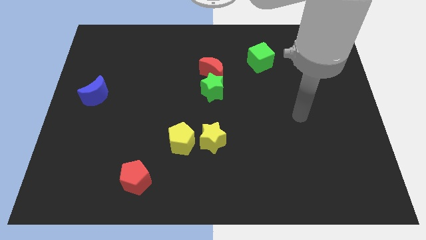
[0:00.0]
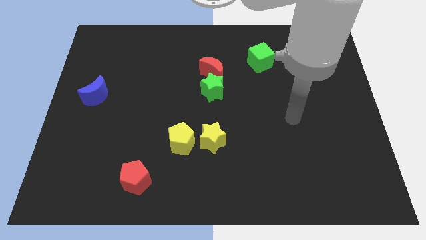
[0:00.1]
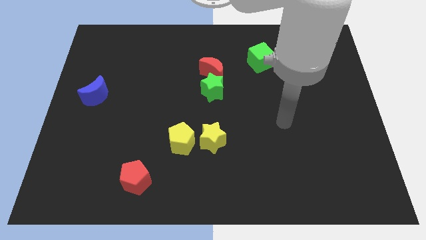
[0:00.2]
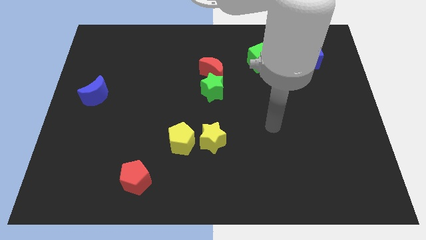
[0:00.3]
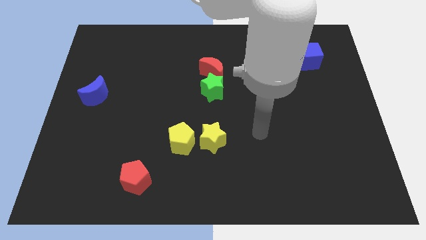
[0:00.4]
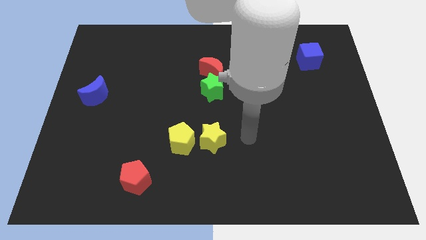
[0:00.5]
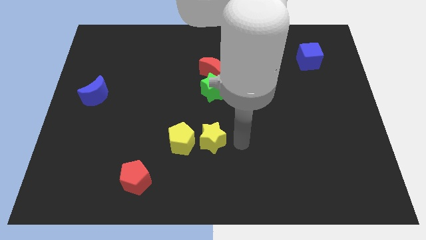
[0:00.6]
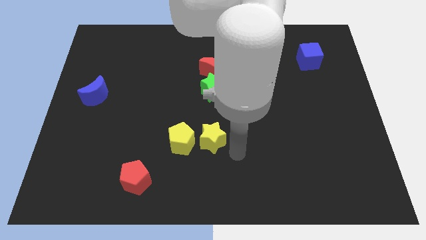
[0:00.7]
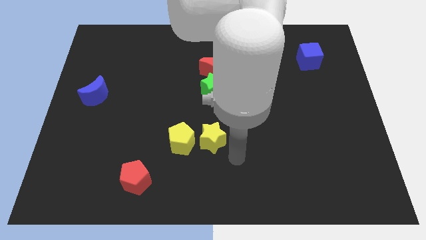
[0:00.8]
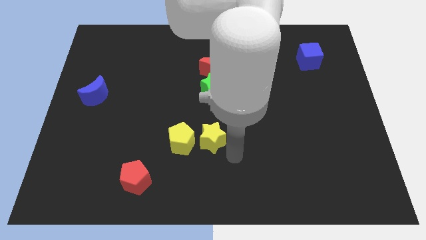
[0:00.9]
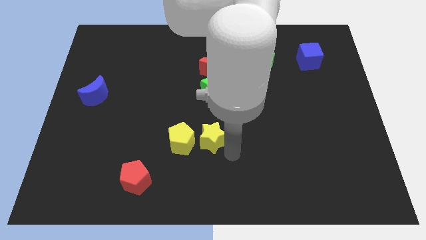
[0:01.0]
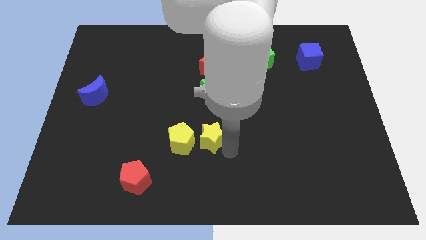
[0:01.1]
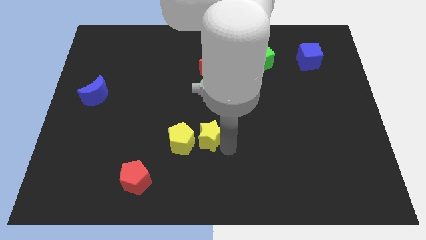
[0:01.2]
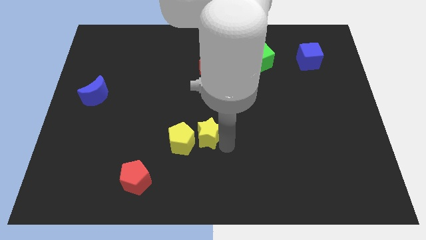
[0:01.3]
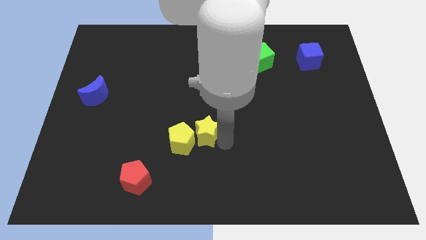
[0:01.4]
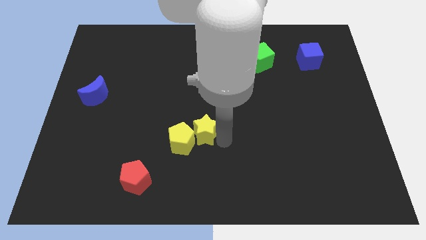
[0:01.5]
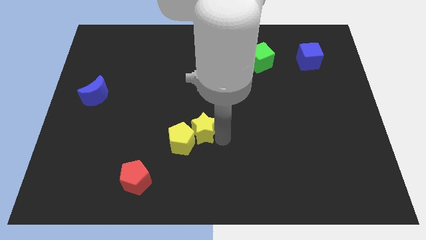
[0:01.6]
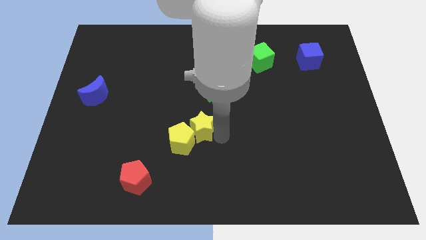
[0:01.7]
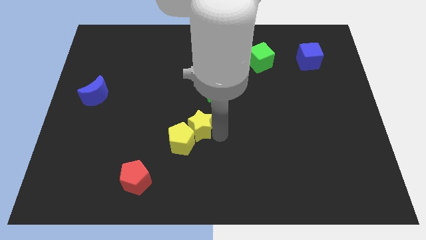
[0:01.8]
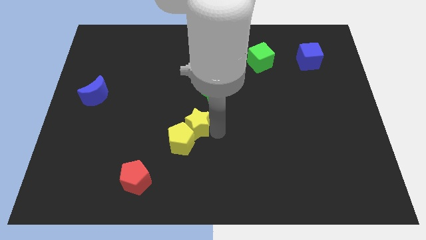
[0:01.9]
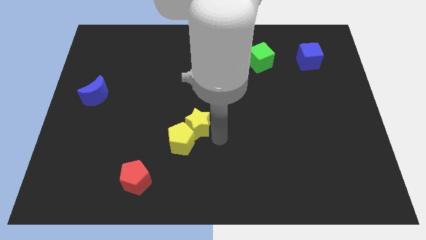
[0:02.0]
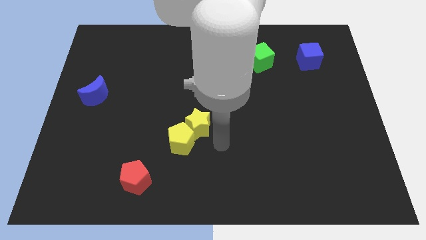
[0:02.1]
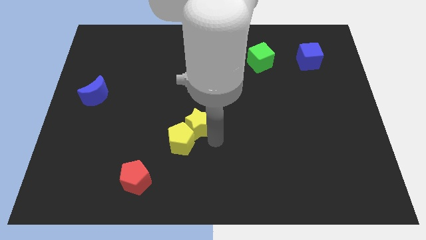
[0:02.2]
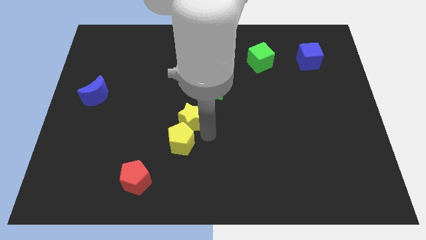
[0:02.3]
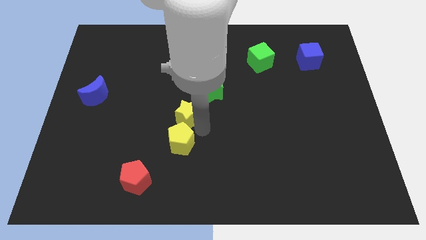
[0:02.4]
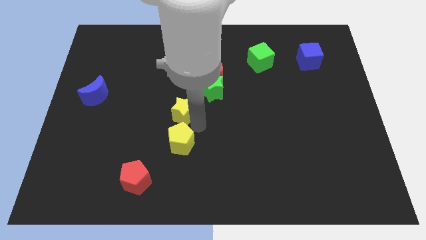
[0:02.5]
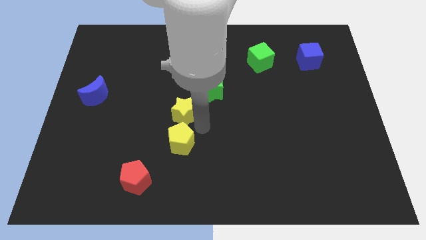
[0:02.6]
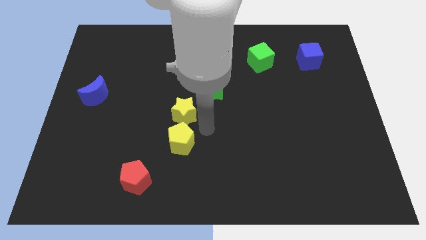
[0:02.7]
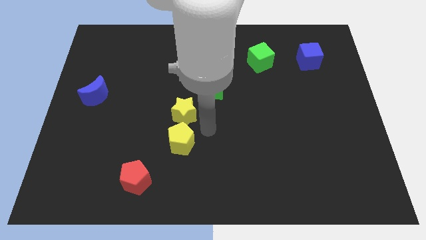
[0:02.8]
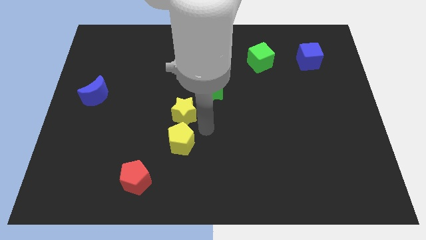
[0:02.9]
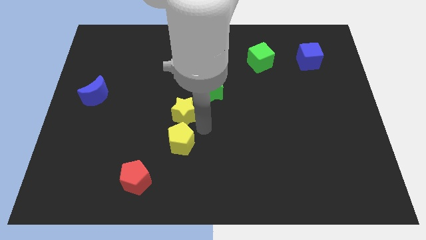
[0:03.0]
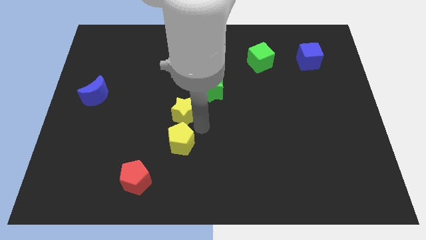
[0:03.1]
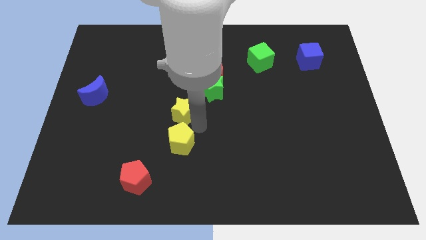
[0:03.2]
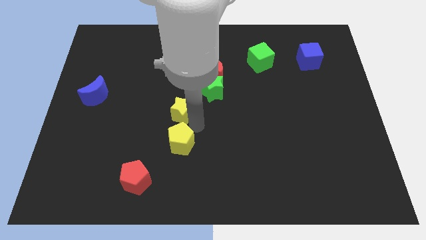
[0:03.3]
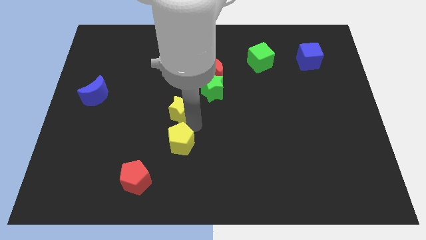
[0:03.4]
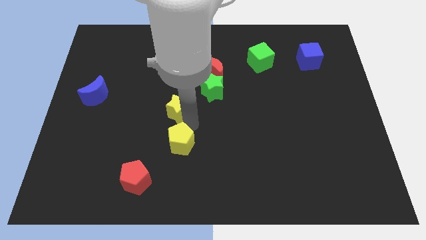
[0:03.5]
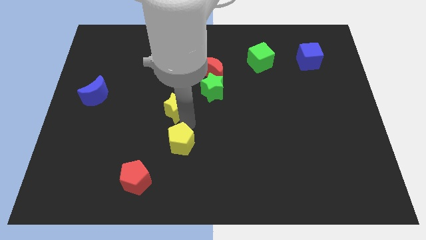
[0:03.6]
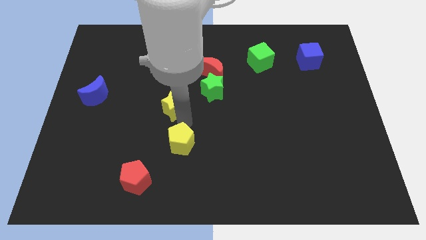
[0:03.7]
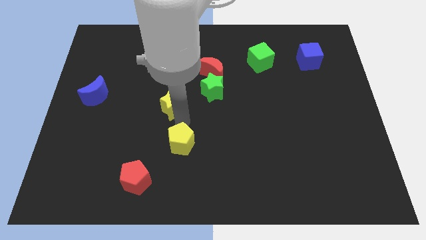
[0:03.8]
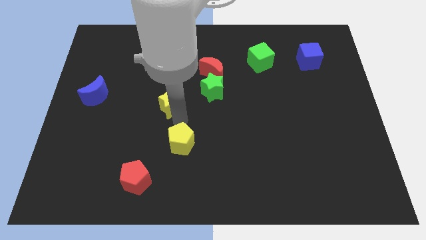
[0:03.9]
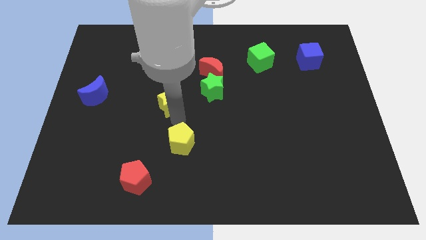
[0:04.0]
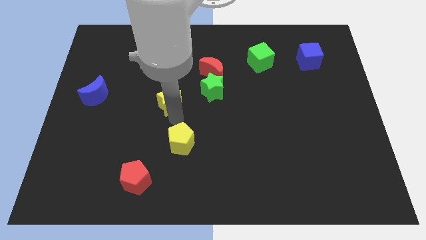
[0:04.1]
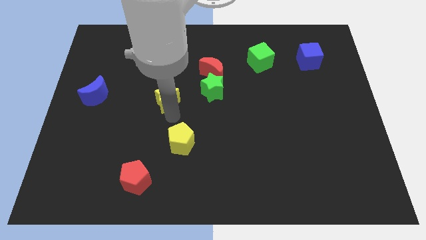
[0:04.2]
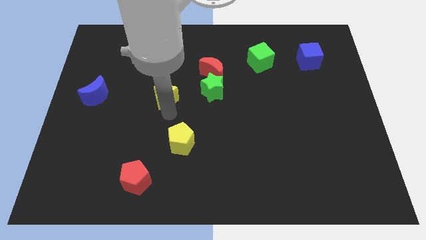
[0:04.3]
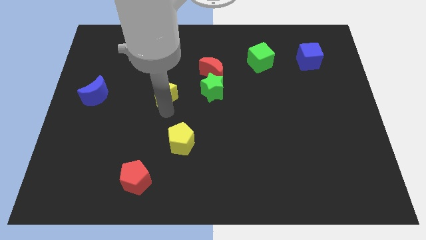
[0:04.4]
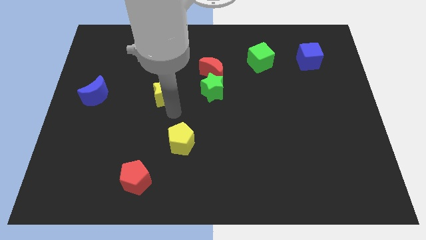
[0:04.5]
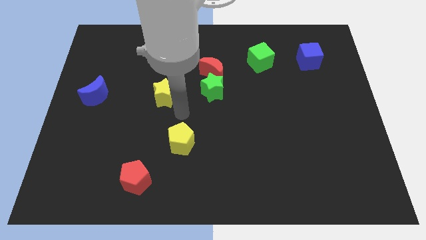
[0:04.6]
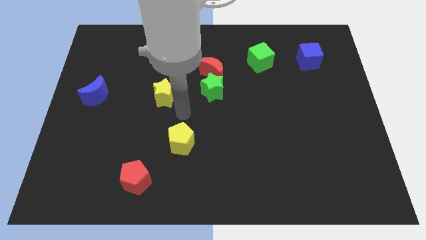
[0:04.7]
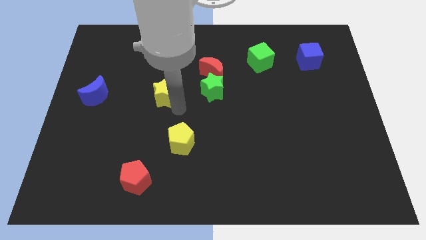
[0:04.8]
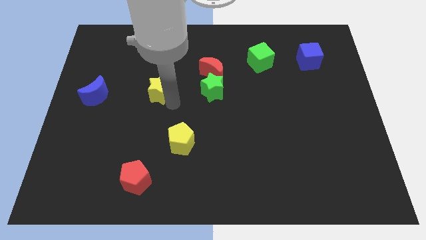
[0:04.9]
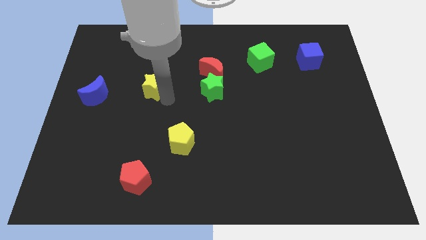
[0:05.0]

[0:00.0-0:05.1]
push the yellow star upwards and to the left

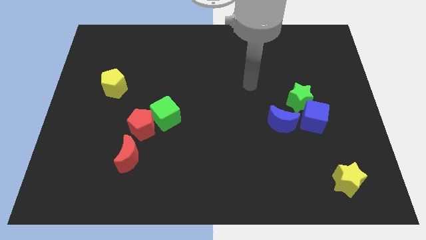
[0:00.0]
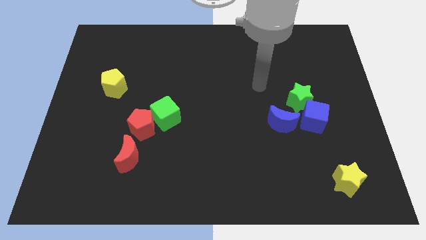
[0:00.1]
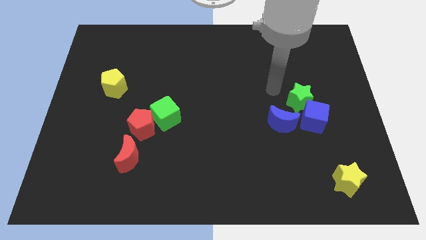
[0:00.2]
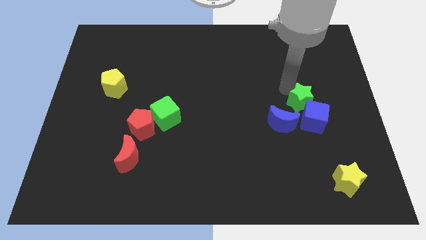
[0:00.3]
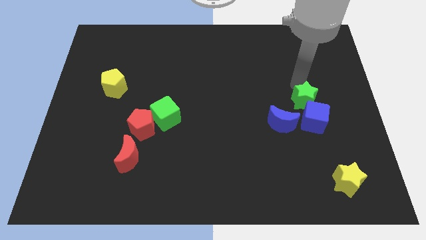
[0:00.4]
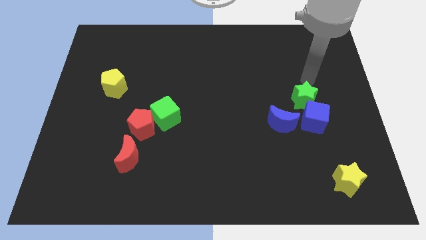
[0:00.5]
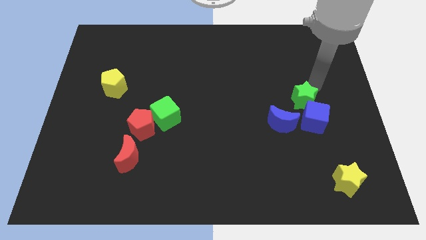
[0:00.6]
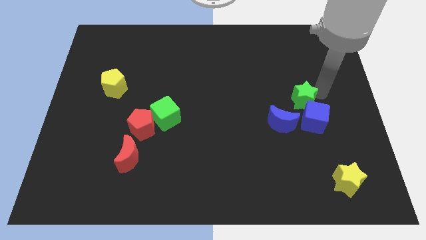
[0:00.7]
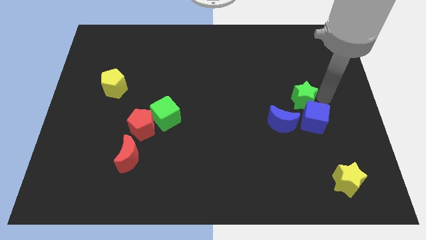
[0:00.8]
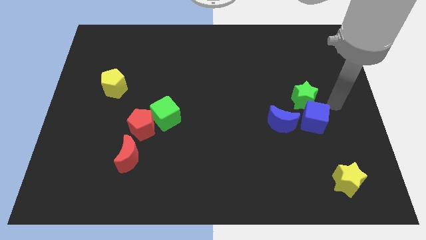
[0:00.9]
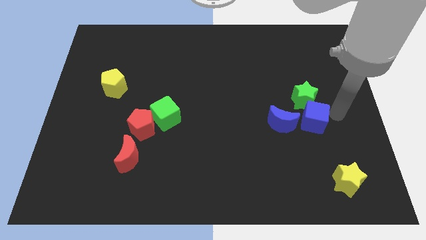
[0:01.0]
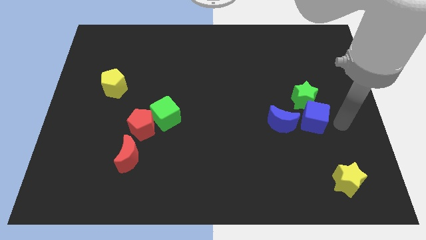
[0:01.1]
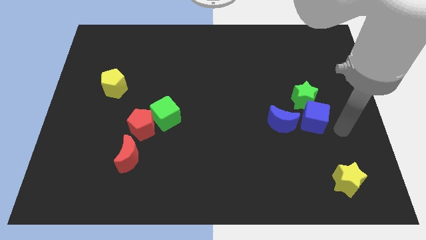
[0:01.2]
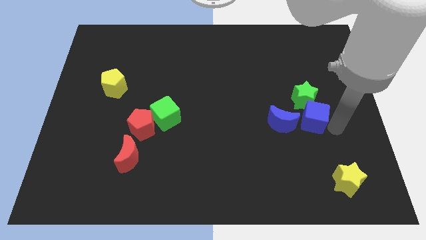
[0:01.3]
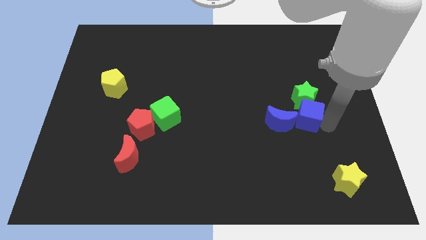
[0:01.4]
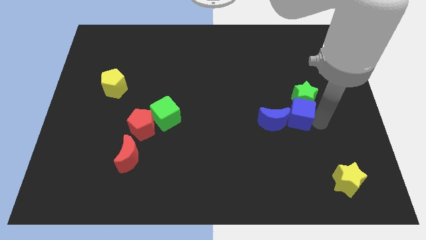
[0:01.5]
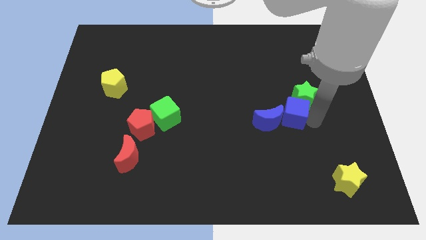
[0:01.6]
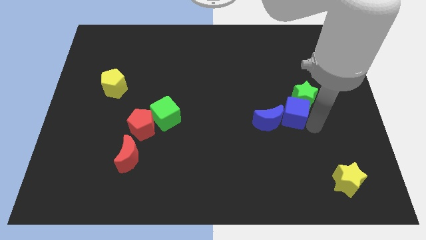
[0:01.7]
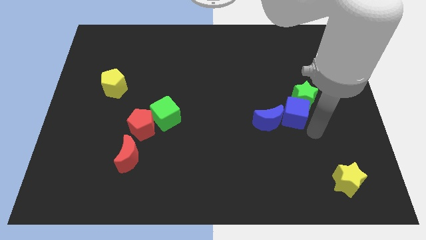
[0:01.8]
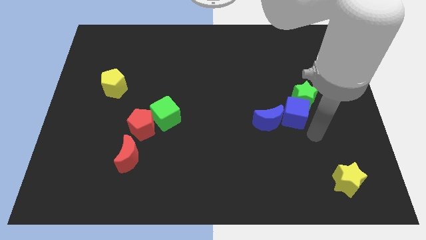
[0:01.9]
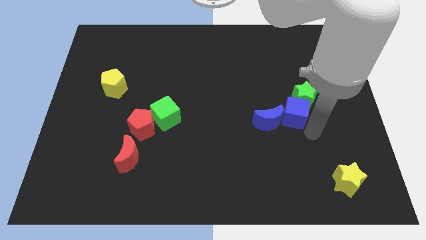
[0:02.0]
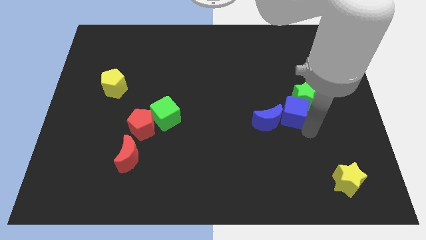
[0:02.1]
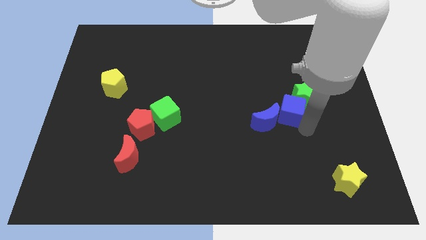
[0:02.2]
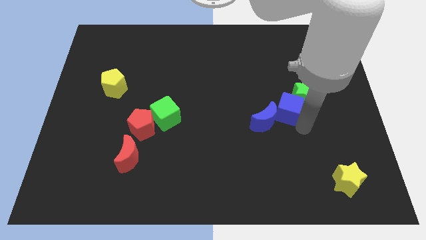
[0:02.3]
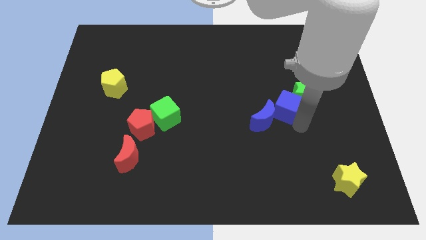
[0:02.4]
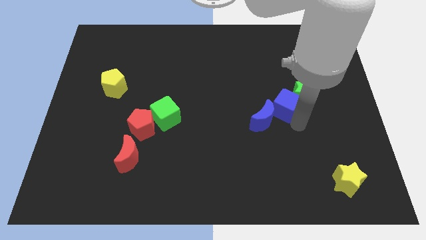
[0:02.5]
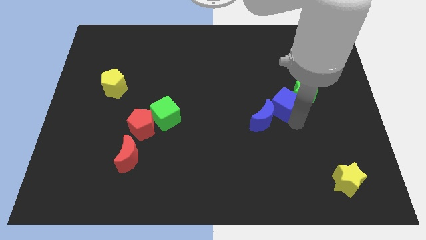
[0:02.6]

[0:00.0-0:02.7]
slightly push the blue cube up and then left
